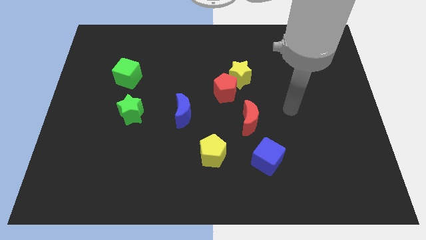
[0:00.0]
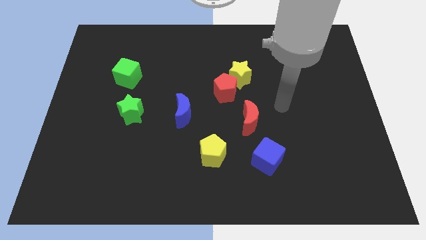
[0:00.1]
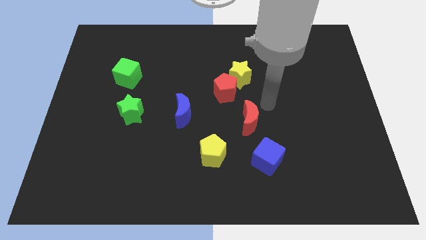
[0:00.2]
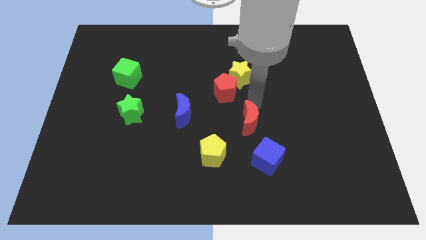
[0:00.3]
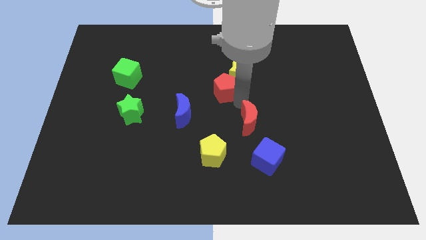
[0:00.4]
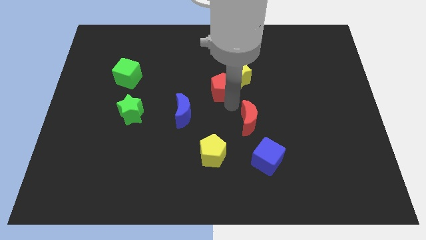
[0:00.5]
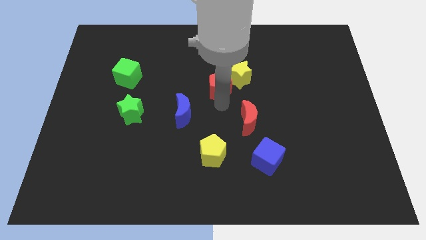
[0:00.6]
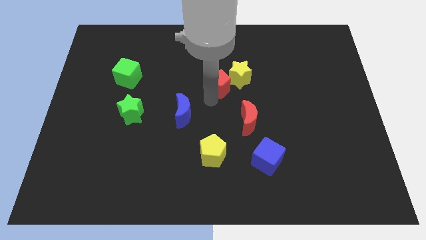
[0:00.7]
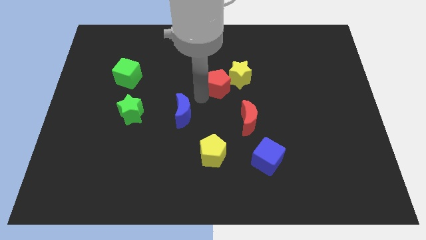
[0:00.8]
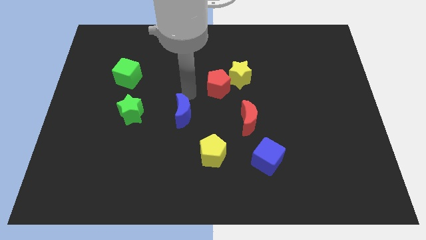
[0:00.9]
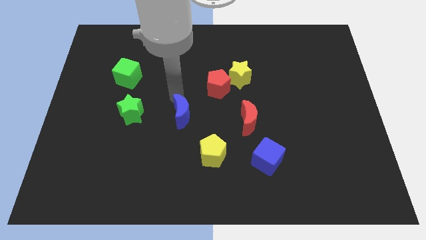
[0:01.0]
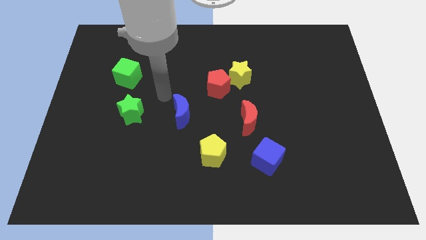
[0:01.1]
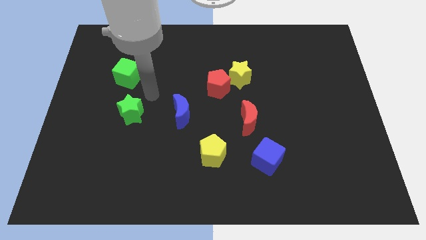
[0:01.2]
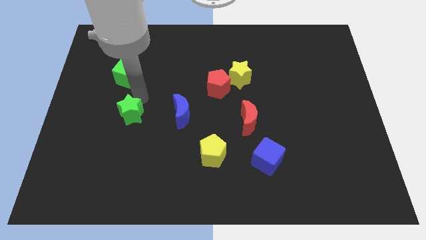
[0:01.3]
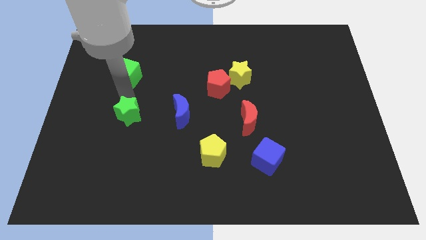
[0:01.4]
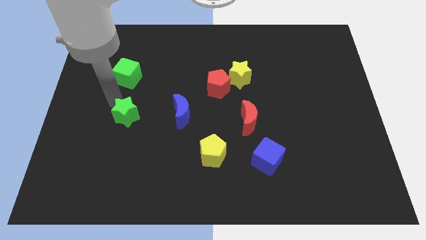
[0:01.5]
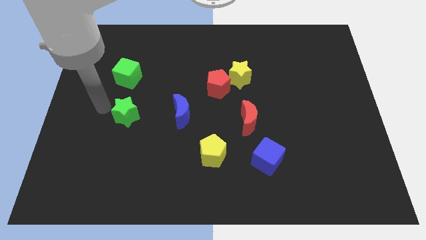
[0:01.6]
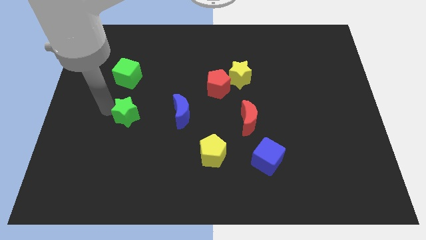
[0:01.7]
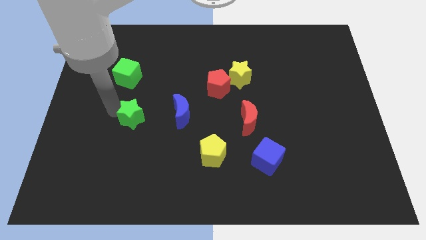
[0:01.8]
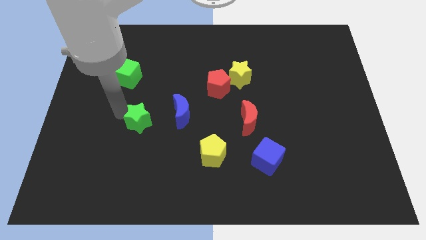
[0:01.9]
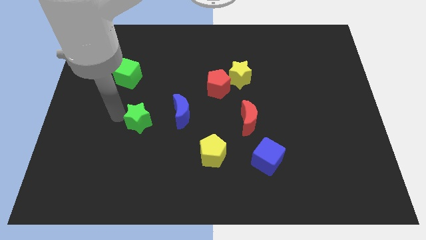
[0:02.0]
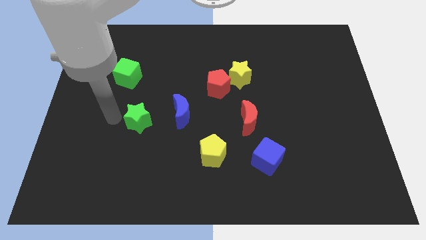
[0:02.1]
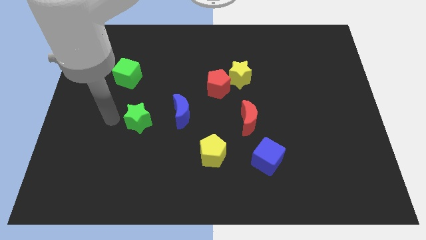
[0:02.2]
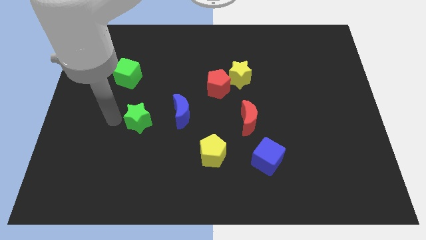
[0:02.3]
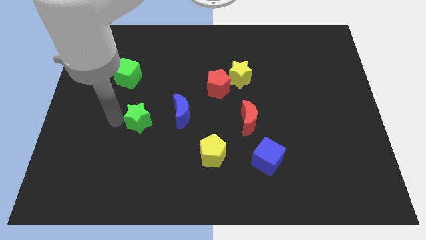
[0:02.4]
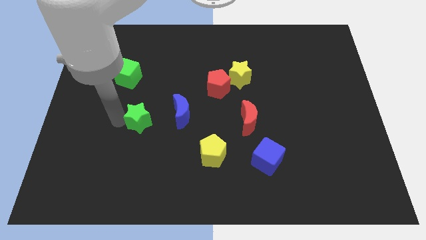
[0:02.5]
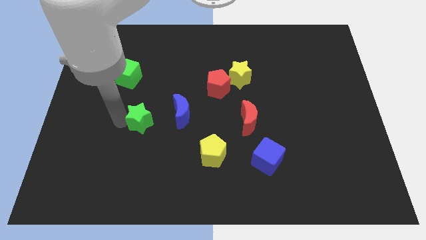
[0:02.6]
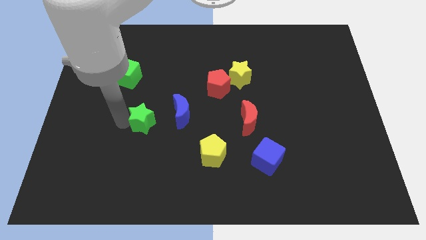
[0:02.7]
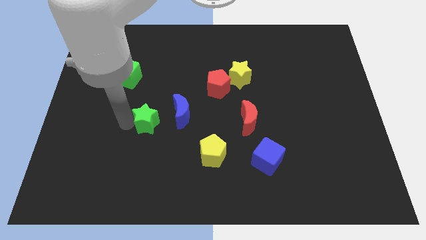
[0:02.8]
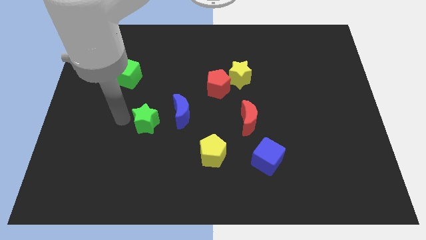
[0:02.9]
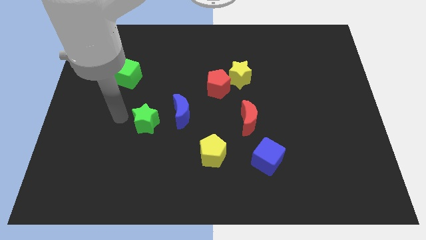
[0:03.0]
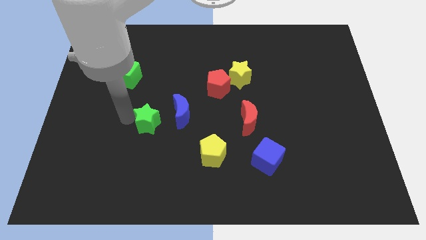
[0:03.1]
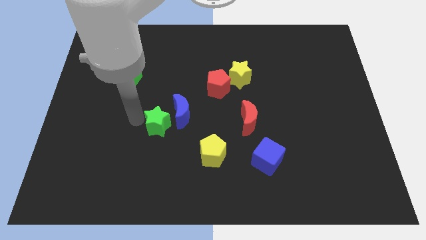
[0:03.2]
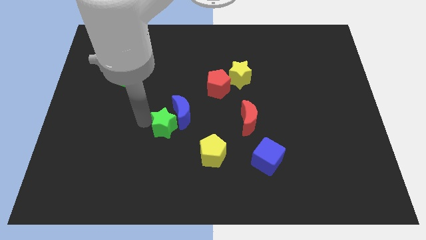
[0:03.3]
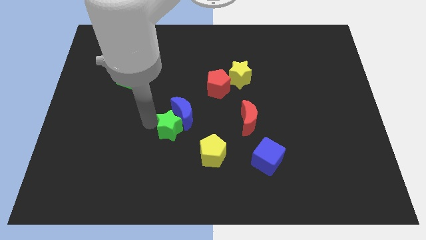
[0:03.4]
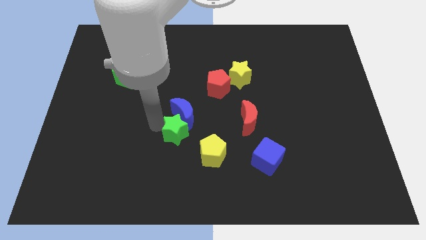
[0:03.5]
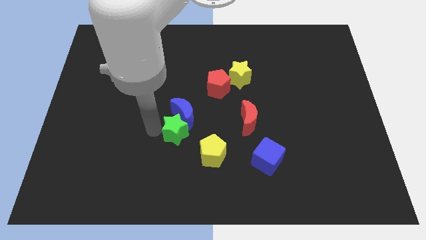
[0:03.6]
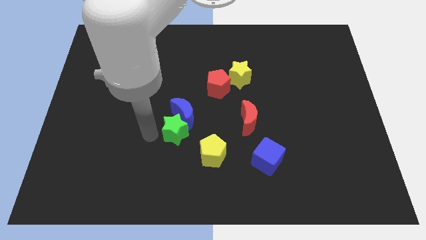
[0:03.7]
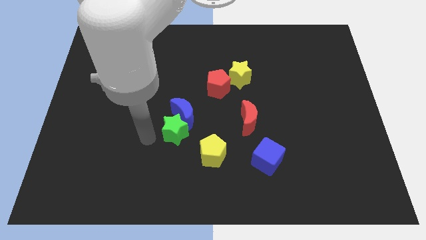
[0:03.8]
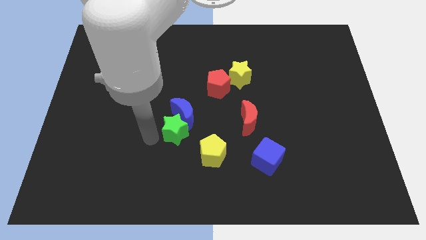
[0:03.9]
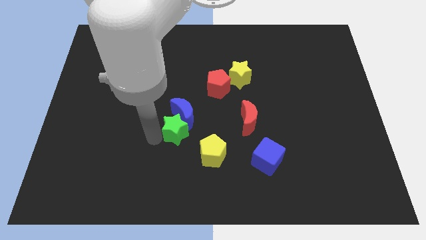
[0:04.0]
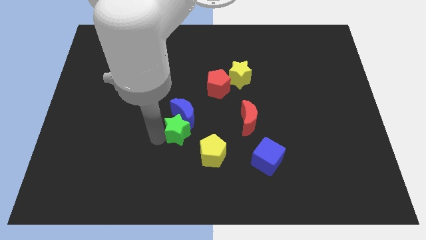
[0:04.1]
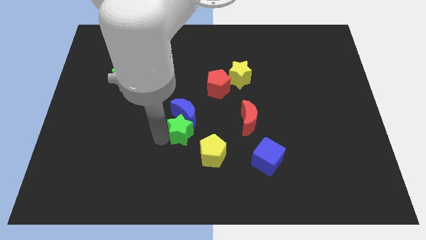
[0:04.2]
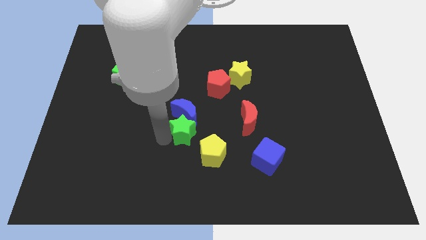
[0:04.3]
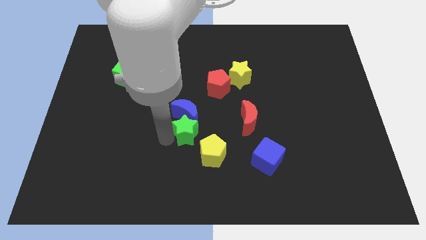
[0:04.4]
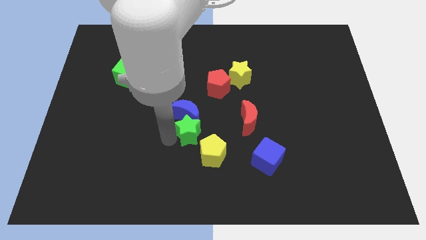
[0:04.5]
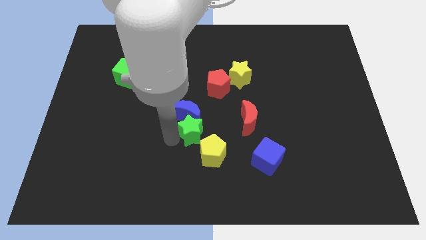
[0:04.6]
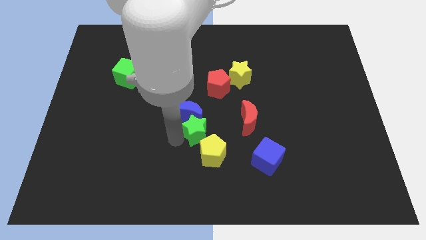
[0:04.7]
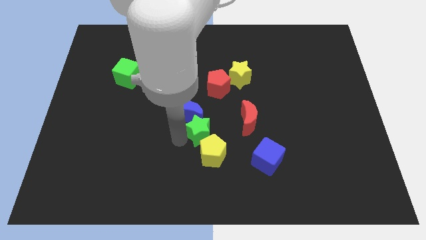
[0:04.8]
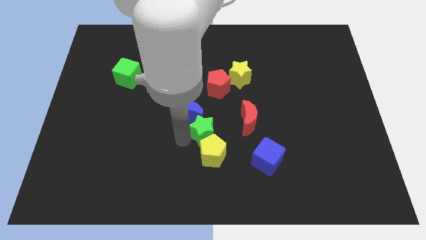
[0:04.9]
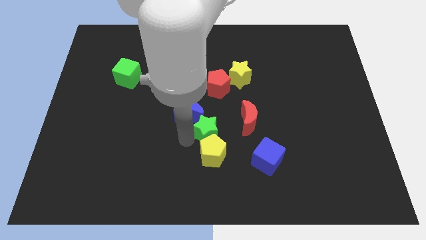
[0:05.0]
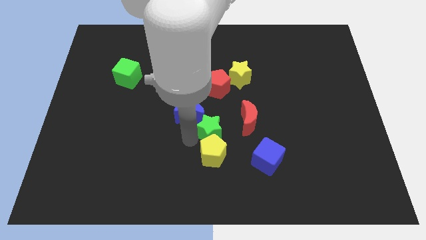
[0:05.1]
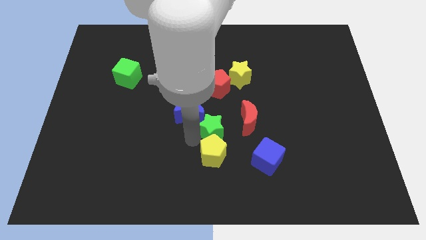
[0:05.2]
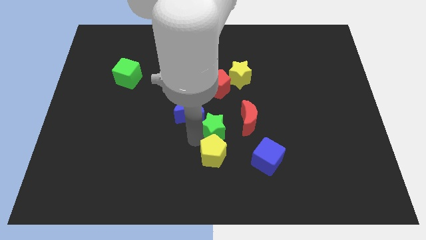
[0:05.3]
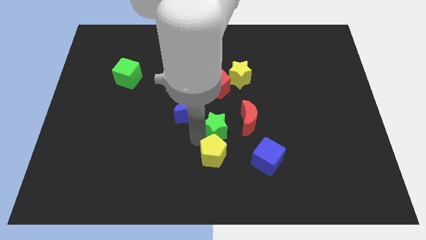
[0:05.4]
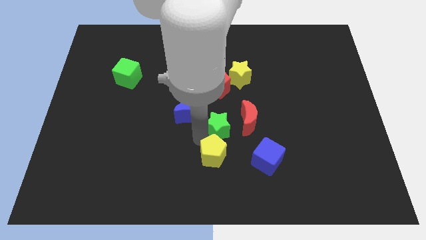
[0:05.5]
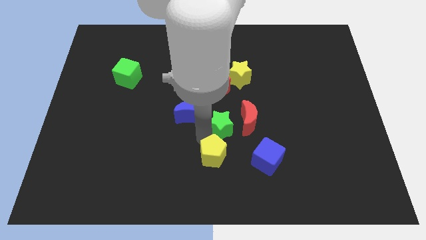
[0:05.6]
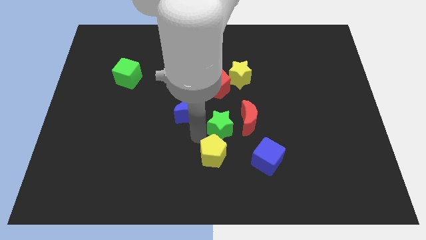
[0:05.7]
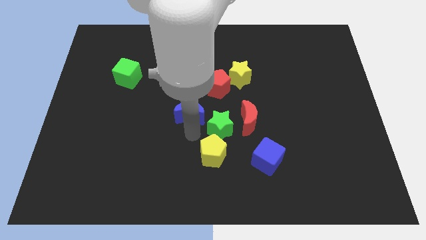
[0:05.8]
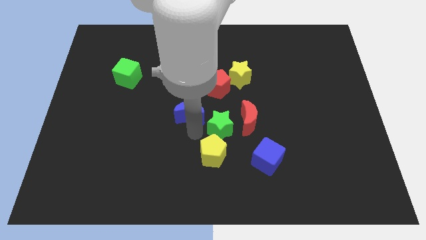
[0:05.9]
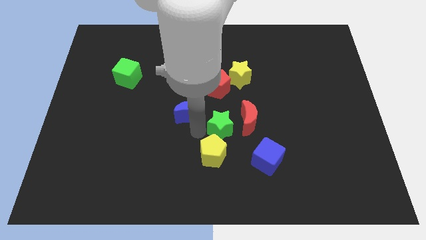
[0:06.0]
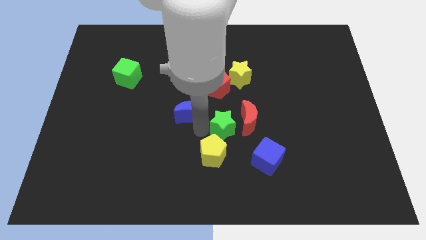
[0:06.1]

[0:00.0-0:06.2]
slide the green star towards the red moon
